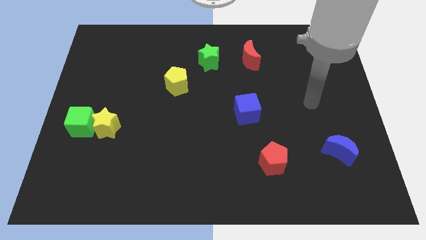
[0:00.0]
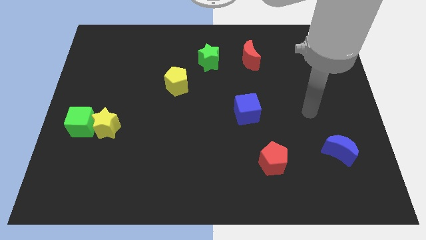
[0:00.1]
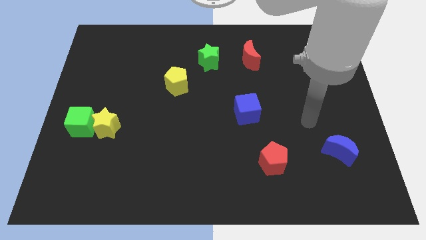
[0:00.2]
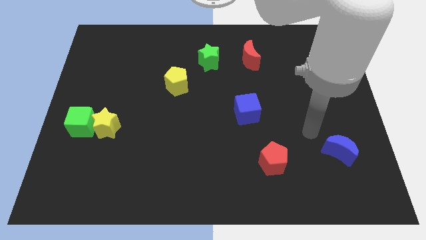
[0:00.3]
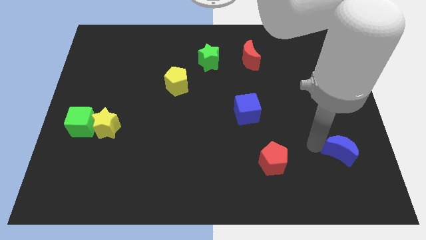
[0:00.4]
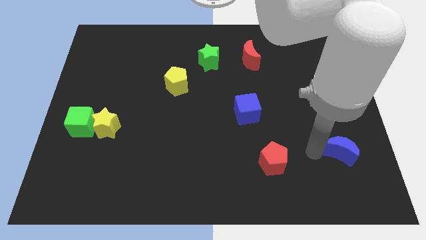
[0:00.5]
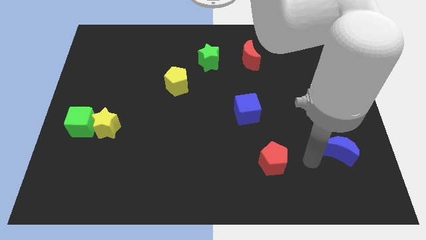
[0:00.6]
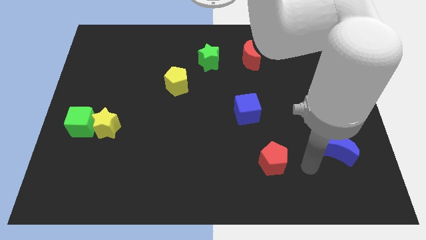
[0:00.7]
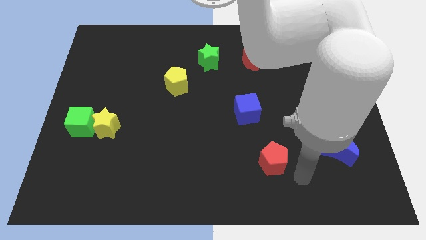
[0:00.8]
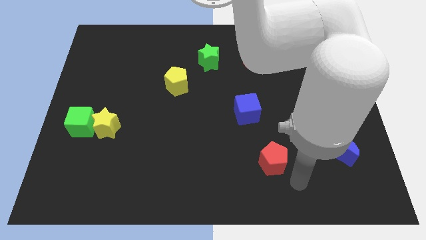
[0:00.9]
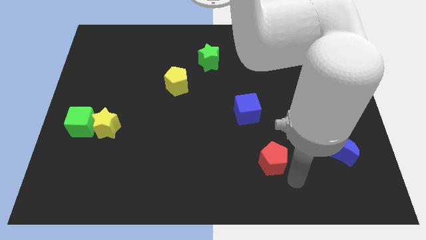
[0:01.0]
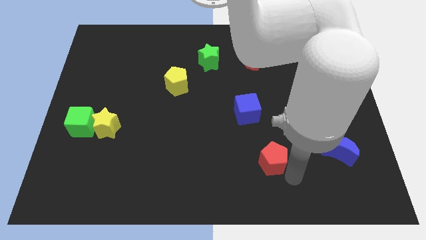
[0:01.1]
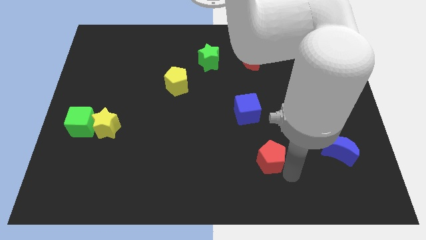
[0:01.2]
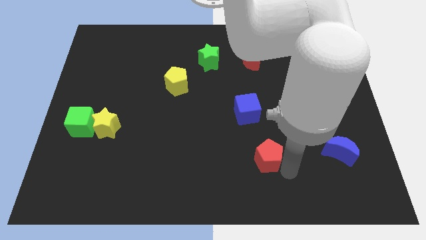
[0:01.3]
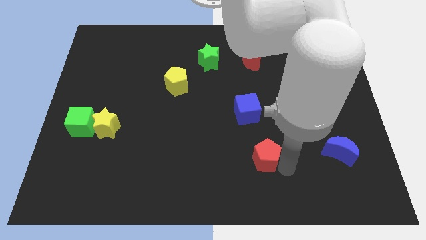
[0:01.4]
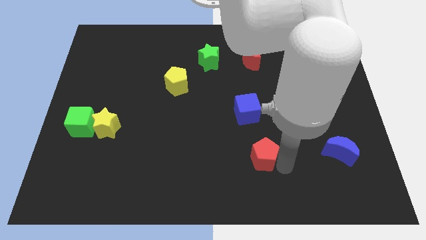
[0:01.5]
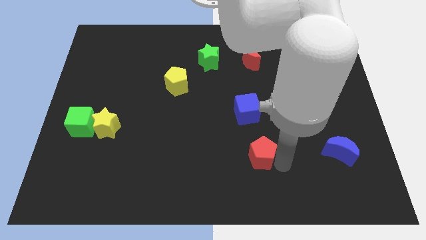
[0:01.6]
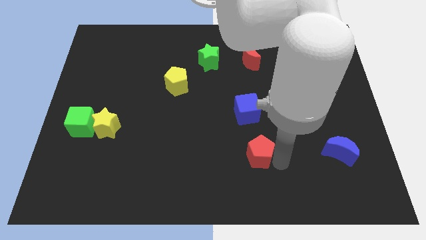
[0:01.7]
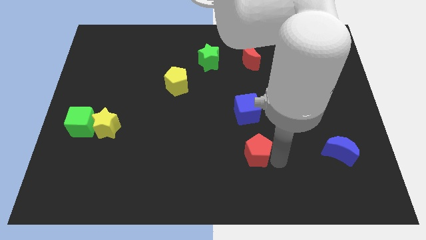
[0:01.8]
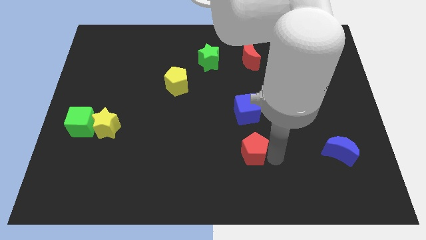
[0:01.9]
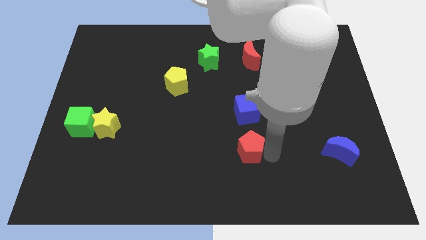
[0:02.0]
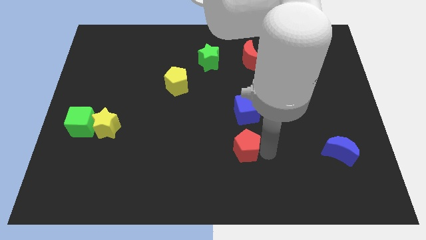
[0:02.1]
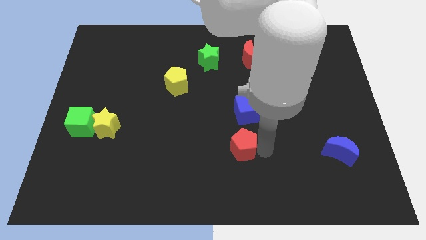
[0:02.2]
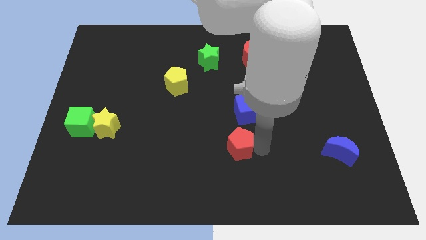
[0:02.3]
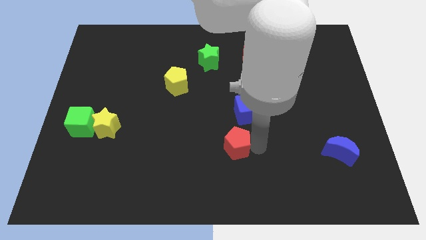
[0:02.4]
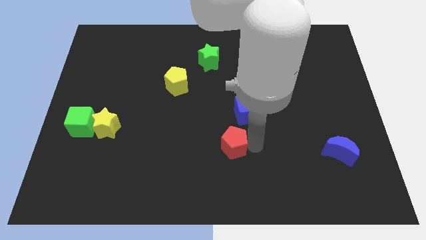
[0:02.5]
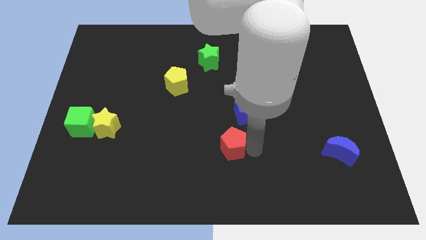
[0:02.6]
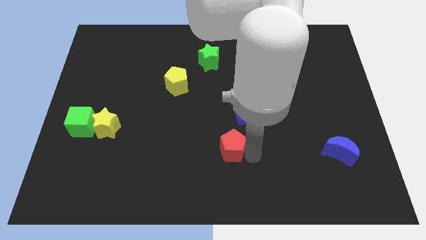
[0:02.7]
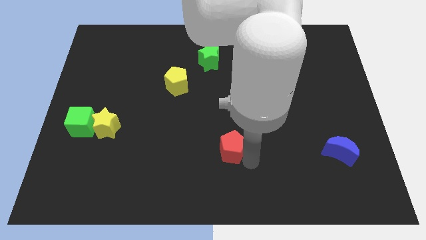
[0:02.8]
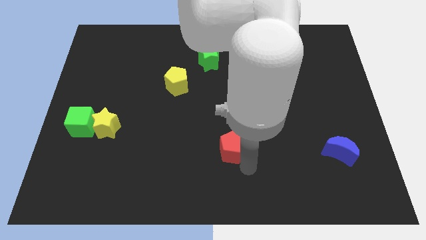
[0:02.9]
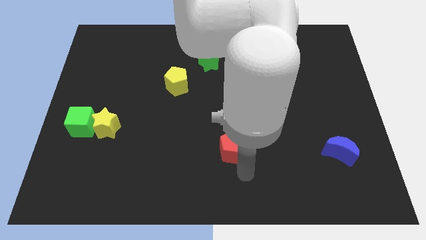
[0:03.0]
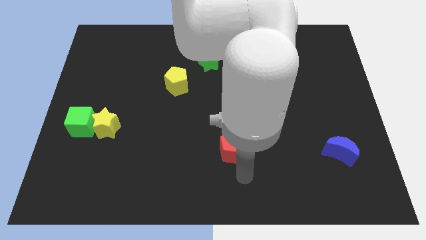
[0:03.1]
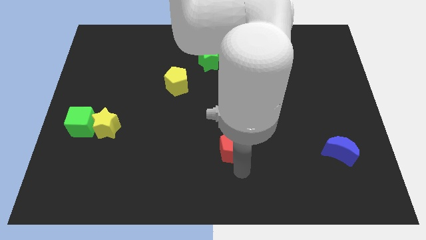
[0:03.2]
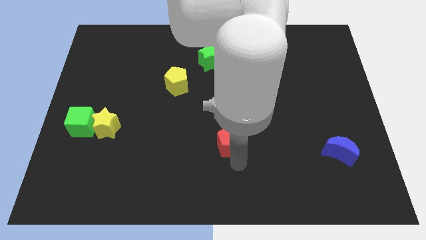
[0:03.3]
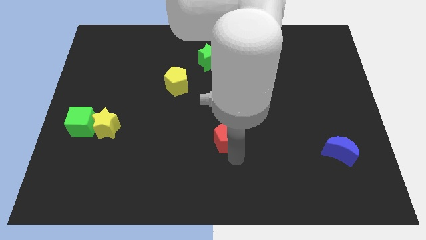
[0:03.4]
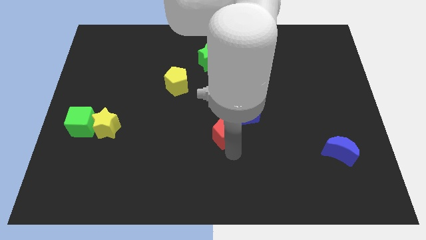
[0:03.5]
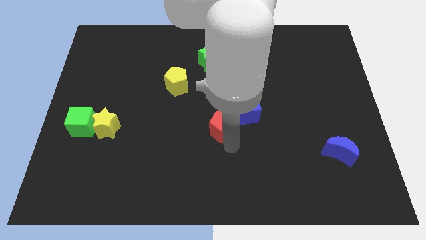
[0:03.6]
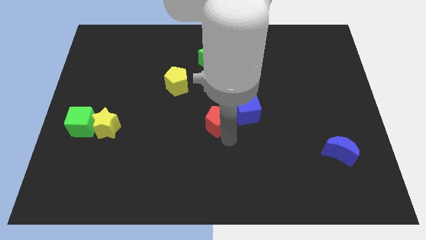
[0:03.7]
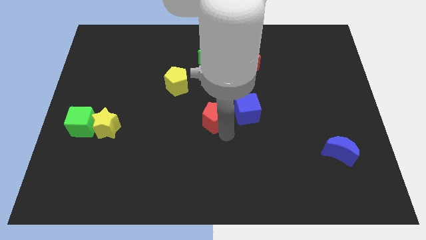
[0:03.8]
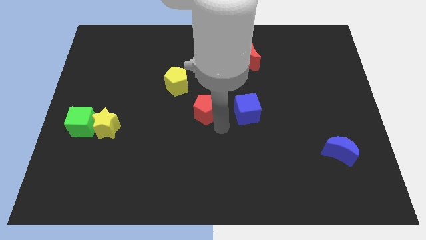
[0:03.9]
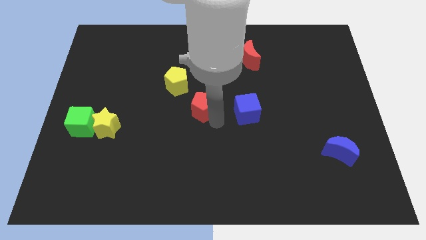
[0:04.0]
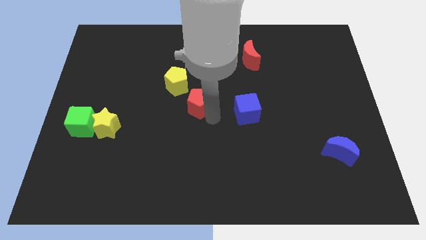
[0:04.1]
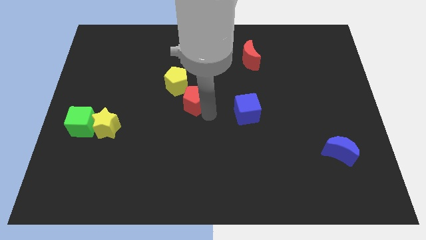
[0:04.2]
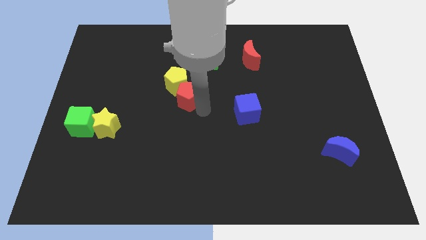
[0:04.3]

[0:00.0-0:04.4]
push the red pentagon close to the yellow pentagon

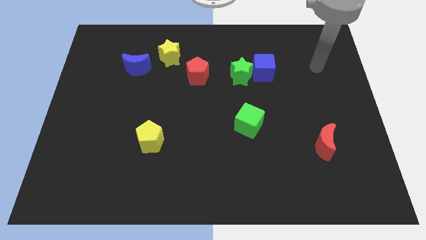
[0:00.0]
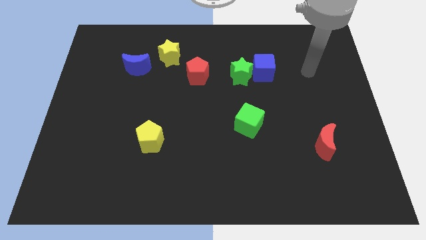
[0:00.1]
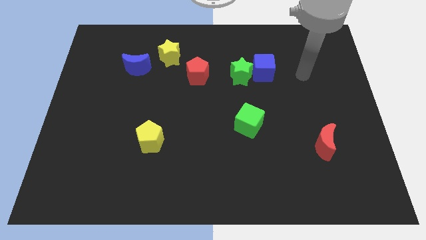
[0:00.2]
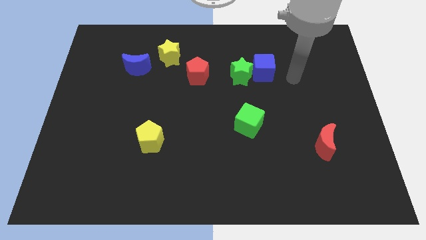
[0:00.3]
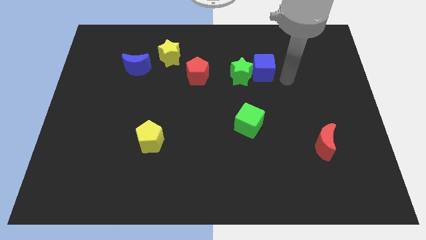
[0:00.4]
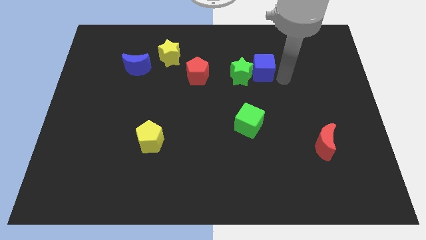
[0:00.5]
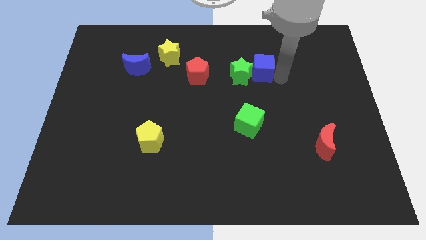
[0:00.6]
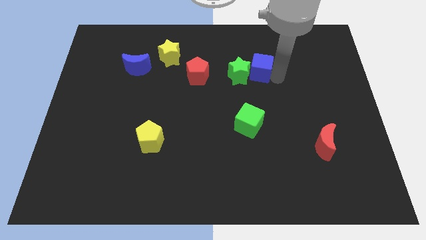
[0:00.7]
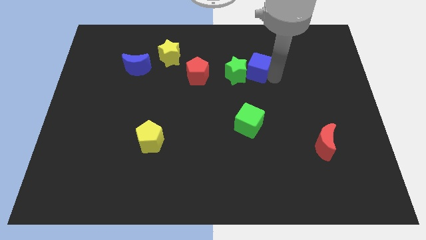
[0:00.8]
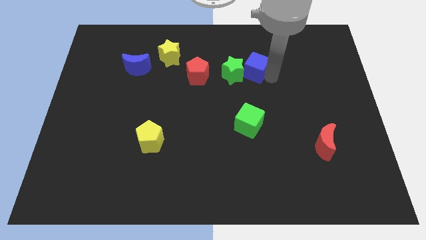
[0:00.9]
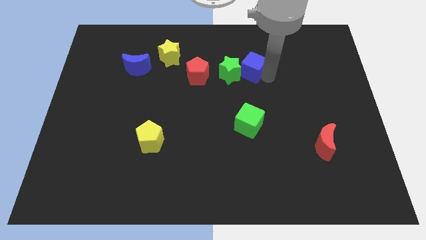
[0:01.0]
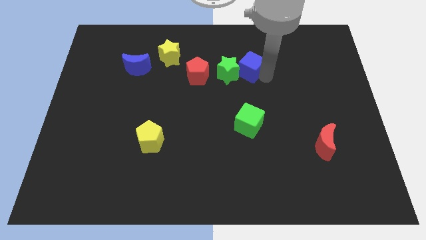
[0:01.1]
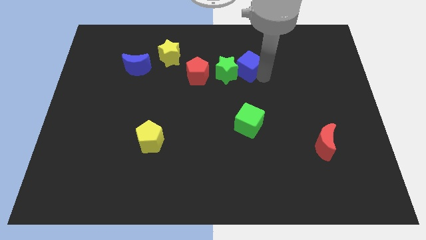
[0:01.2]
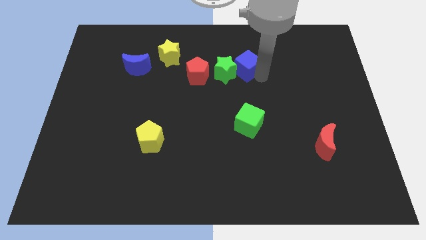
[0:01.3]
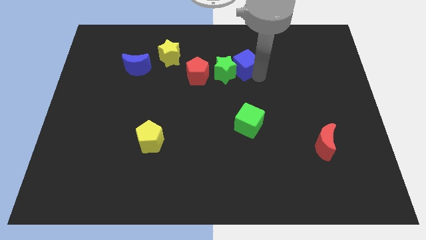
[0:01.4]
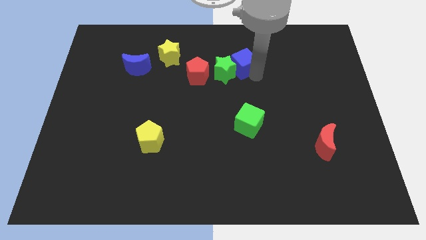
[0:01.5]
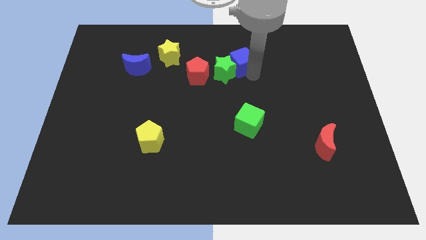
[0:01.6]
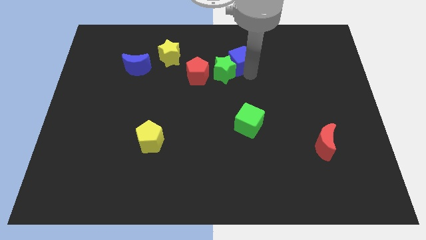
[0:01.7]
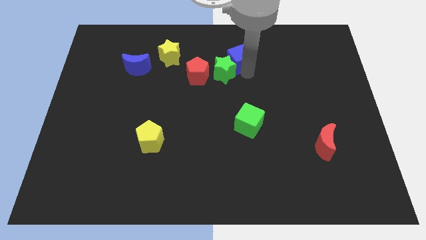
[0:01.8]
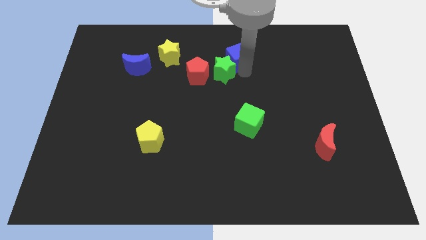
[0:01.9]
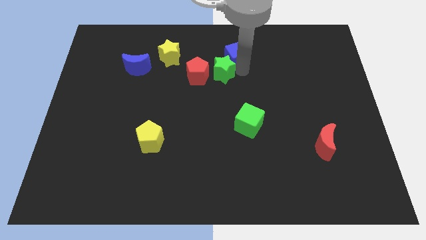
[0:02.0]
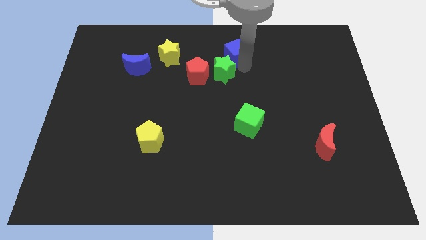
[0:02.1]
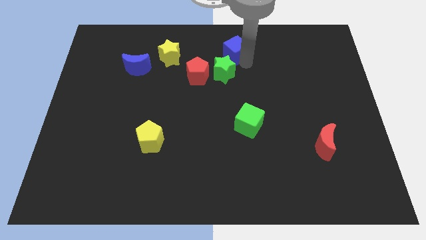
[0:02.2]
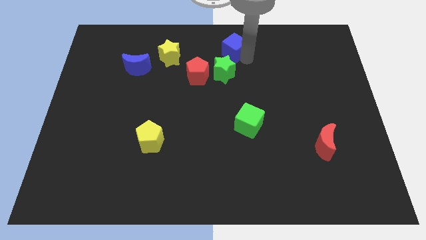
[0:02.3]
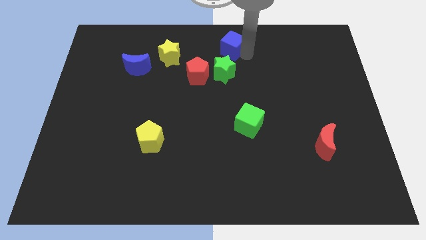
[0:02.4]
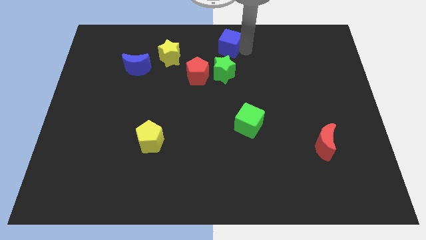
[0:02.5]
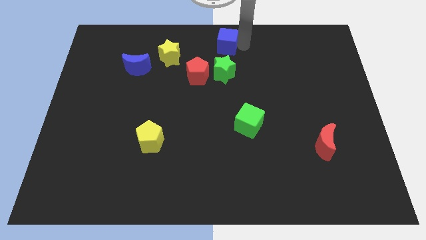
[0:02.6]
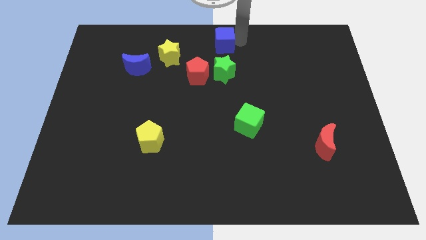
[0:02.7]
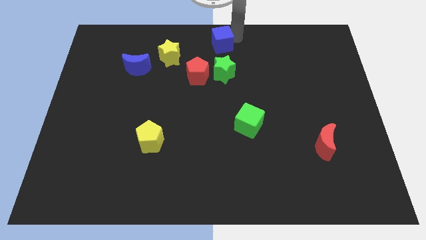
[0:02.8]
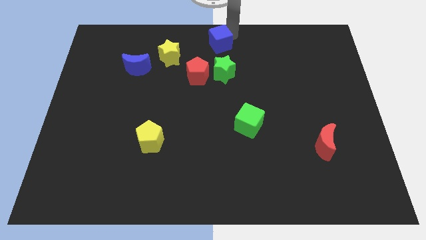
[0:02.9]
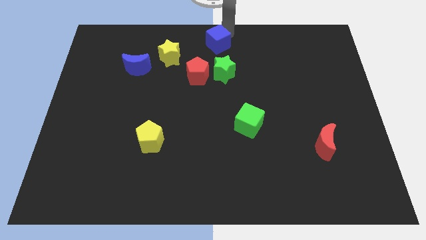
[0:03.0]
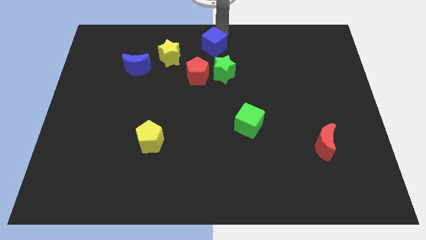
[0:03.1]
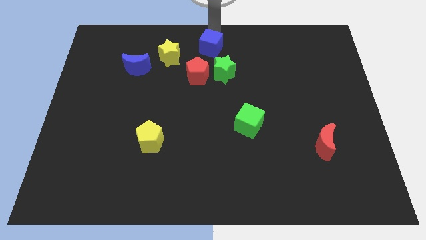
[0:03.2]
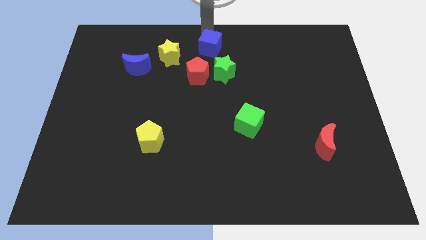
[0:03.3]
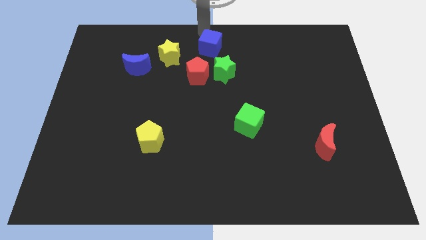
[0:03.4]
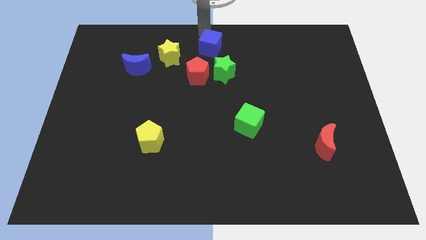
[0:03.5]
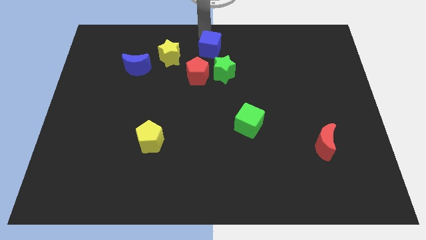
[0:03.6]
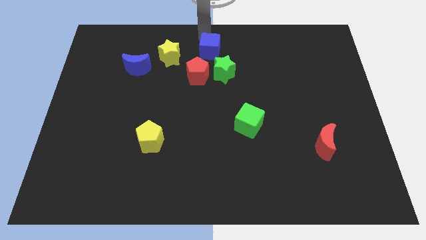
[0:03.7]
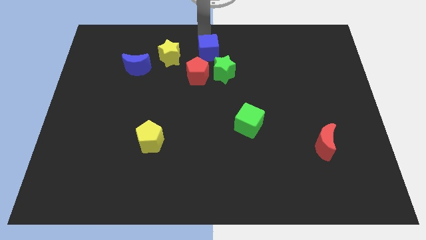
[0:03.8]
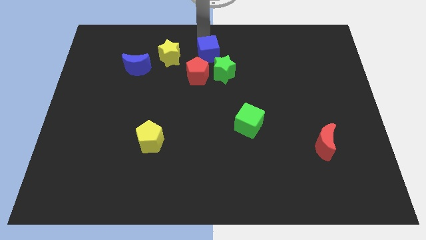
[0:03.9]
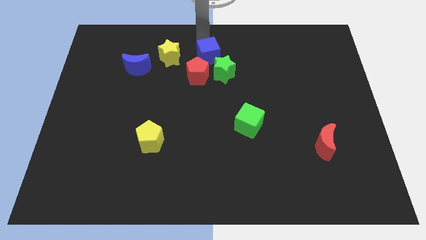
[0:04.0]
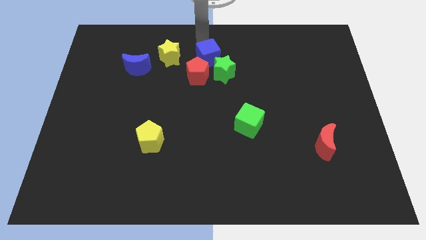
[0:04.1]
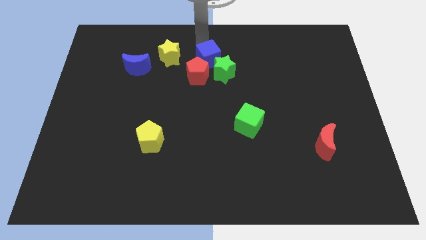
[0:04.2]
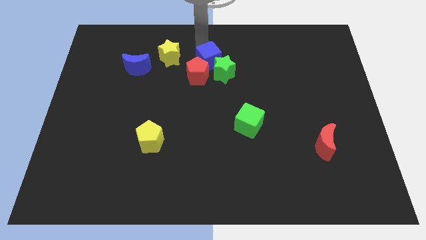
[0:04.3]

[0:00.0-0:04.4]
slide the blue cube close to the red pentagon
